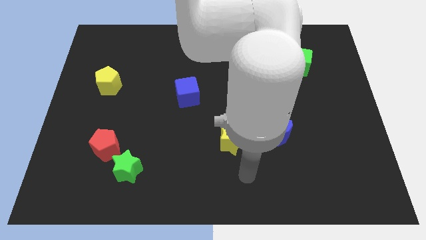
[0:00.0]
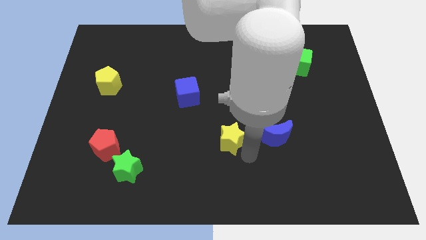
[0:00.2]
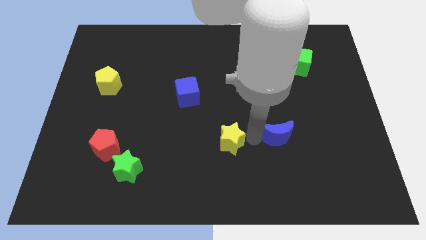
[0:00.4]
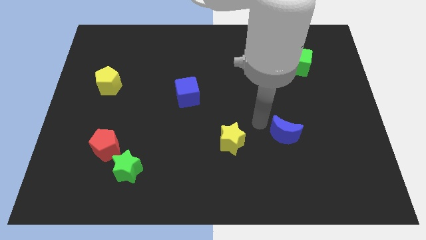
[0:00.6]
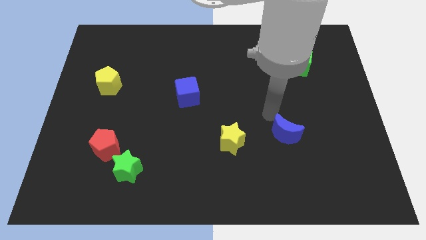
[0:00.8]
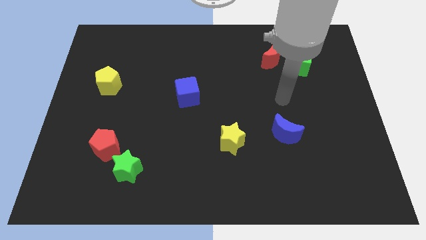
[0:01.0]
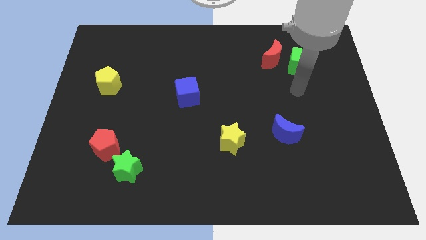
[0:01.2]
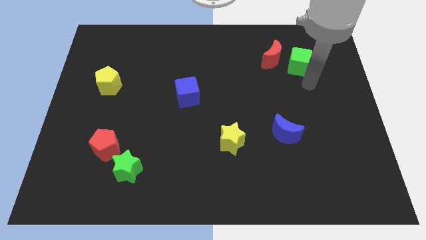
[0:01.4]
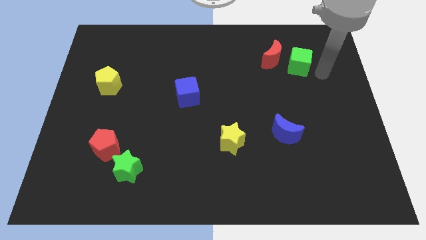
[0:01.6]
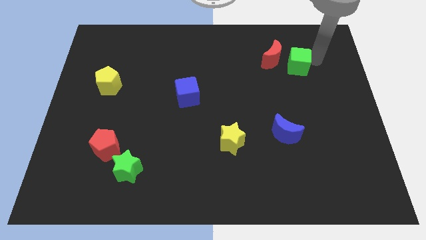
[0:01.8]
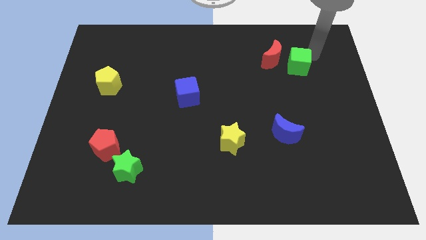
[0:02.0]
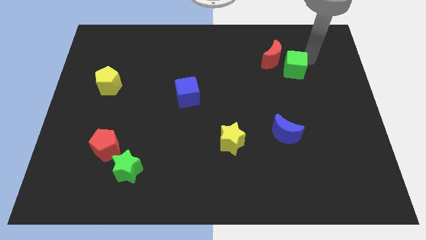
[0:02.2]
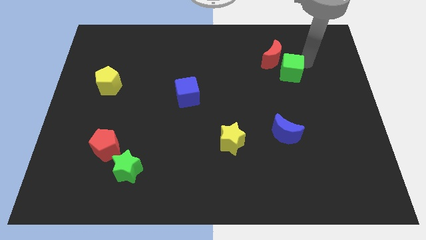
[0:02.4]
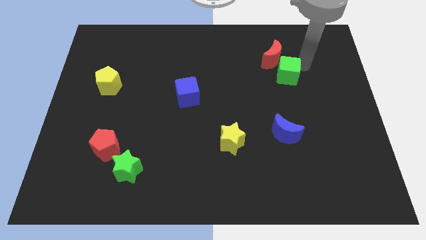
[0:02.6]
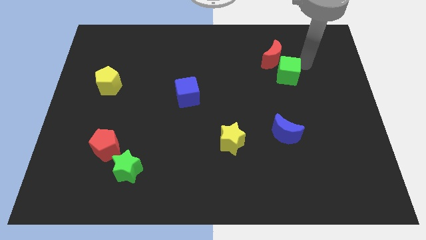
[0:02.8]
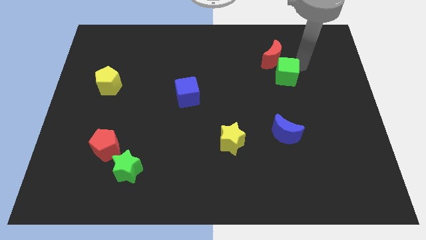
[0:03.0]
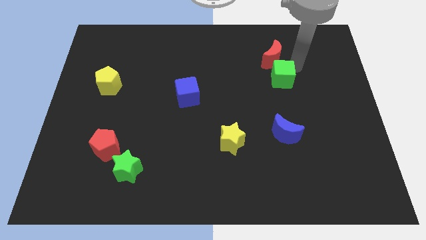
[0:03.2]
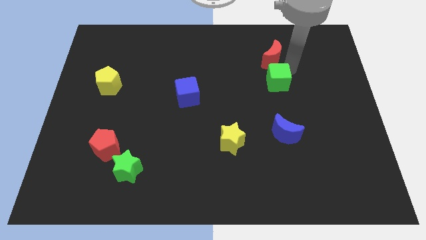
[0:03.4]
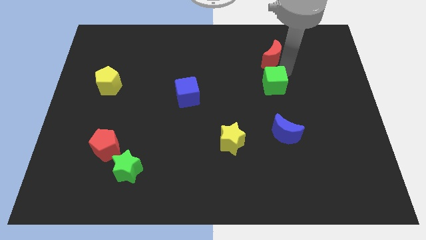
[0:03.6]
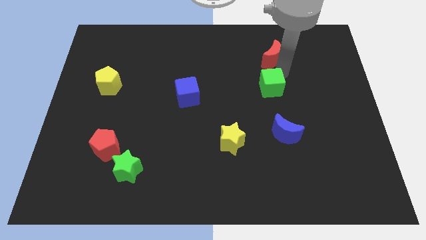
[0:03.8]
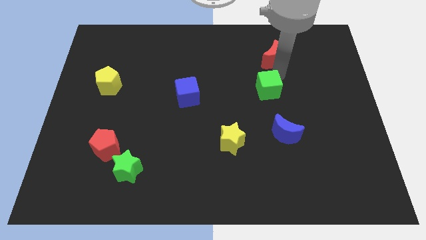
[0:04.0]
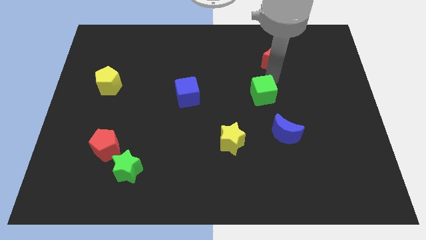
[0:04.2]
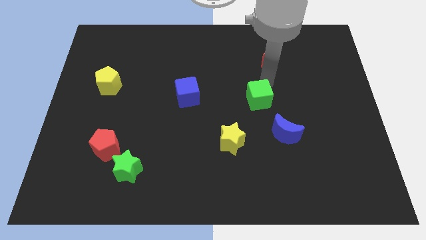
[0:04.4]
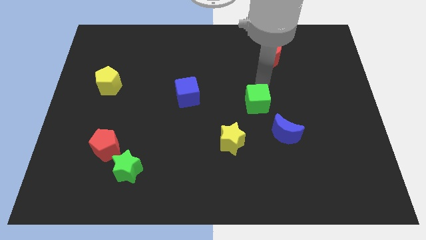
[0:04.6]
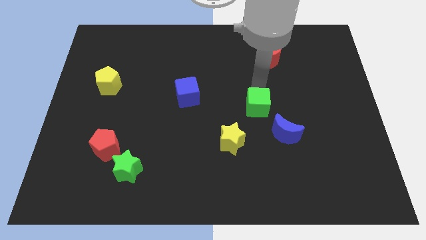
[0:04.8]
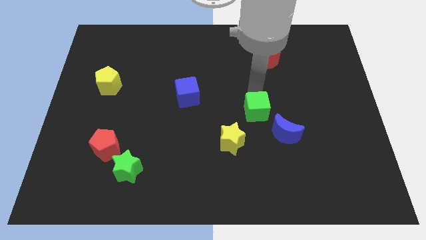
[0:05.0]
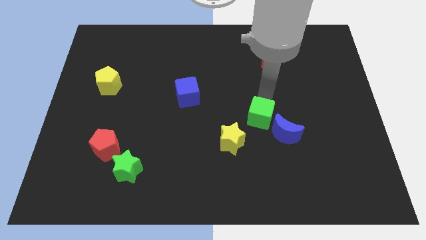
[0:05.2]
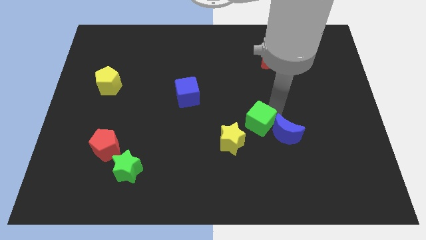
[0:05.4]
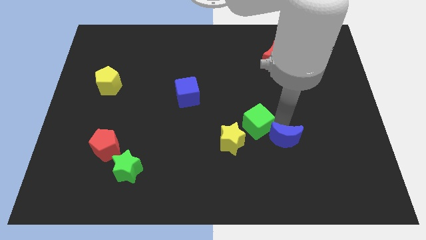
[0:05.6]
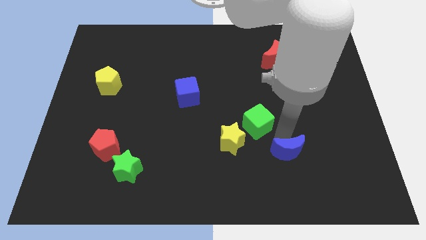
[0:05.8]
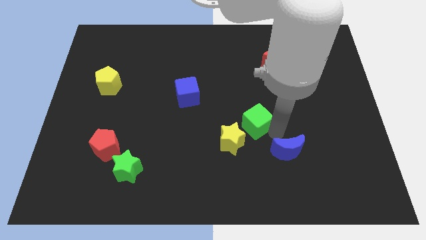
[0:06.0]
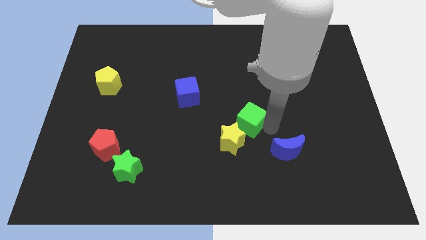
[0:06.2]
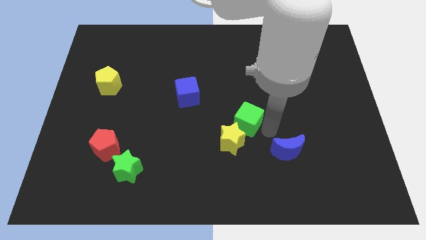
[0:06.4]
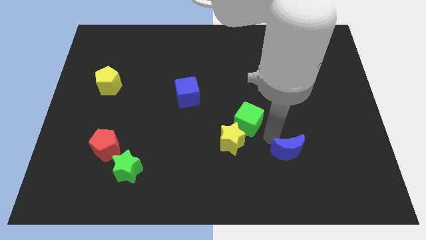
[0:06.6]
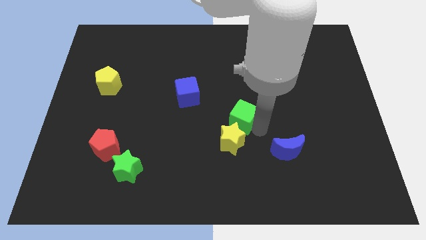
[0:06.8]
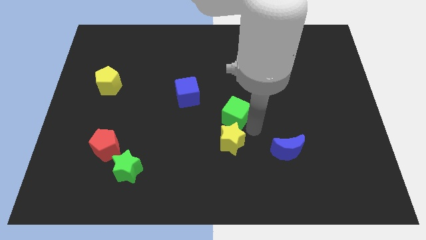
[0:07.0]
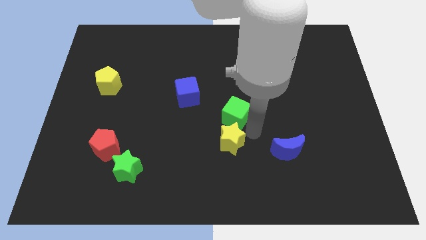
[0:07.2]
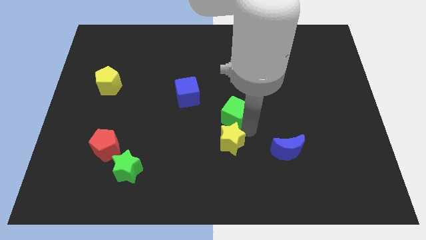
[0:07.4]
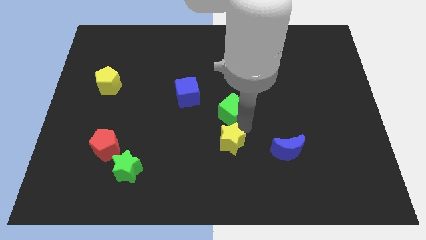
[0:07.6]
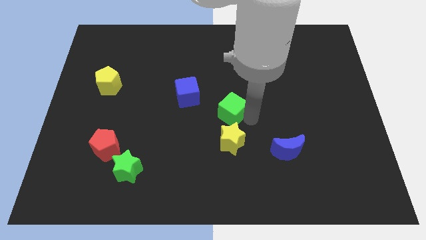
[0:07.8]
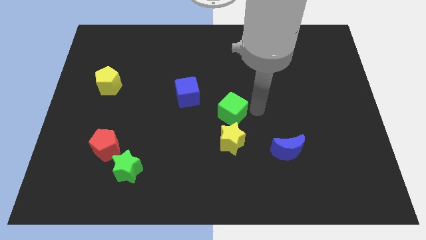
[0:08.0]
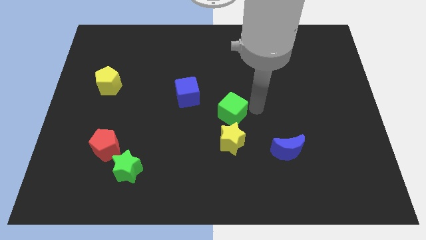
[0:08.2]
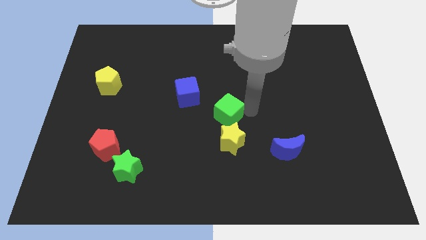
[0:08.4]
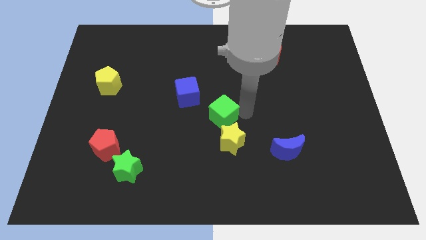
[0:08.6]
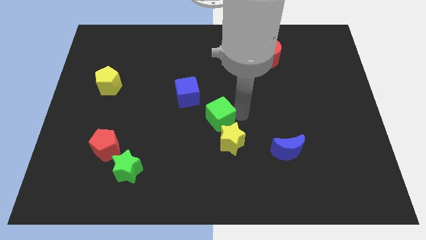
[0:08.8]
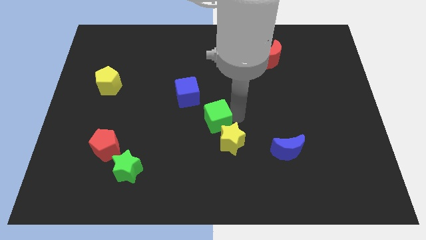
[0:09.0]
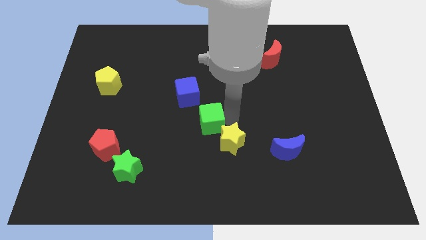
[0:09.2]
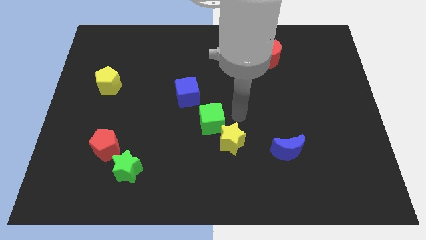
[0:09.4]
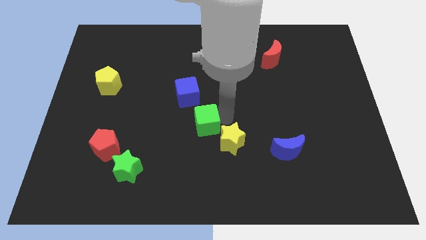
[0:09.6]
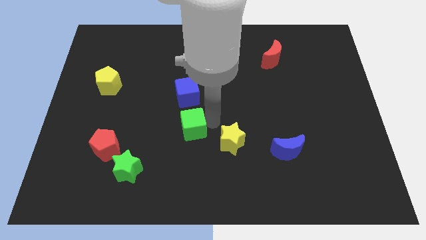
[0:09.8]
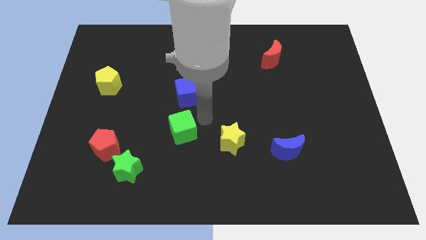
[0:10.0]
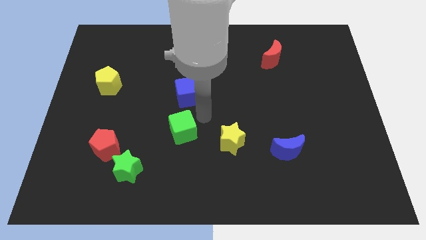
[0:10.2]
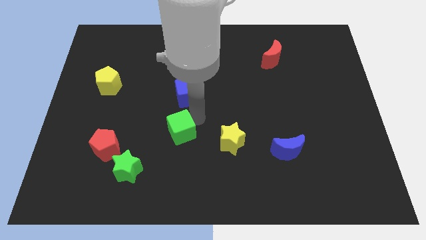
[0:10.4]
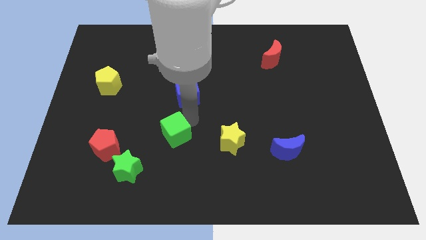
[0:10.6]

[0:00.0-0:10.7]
push the green cube to the top right side of the green star

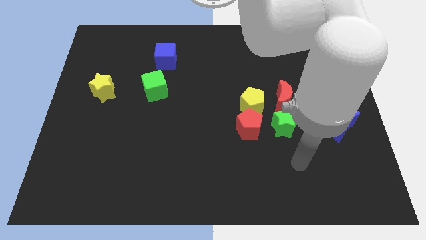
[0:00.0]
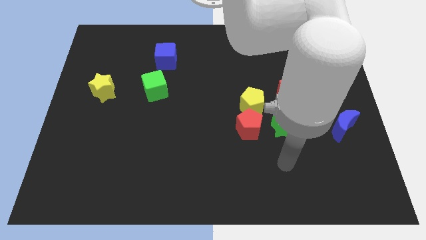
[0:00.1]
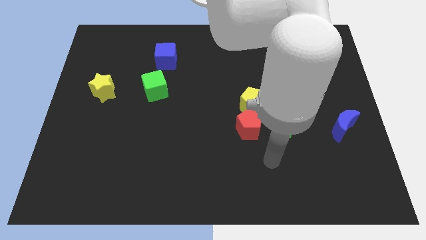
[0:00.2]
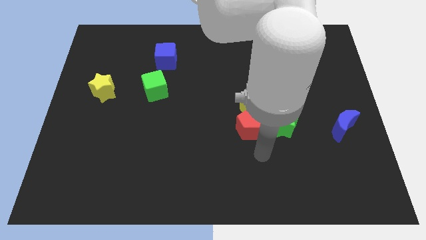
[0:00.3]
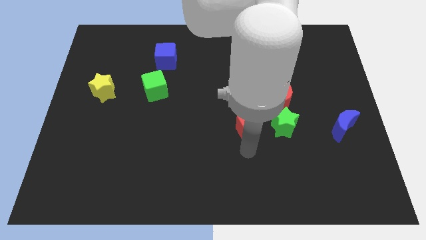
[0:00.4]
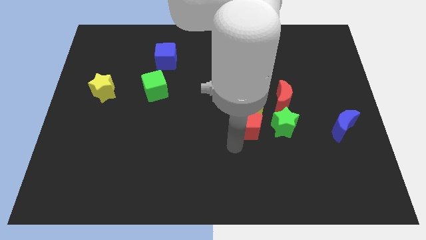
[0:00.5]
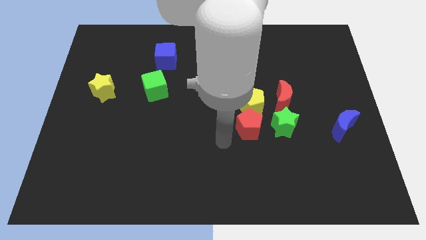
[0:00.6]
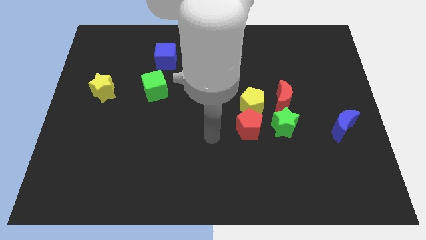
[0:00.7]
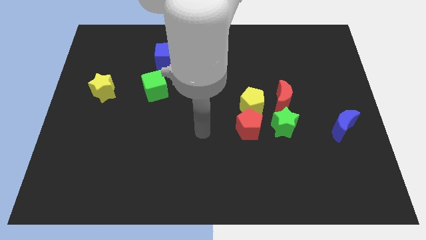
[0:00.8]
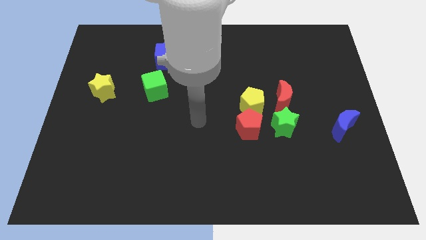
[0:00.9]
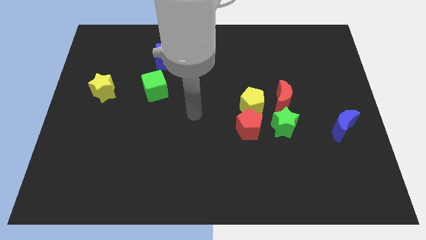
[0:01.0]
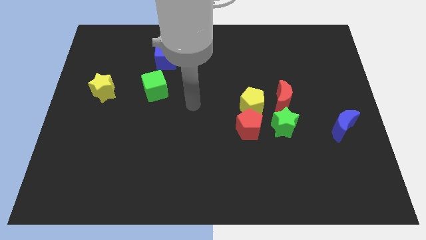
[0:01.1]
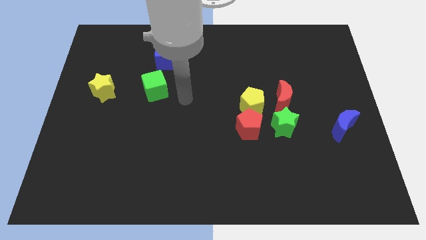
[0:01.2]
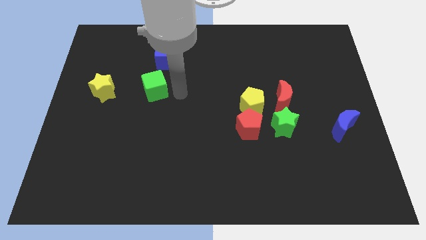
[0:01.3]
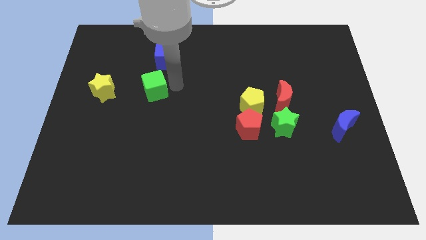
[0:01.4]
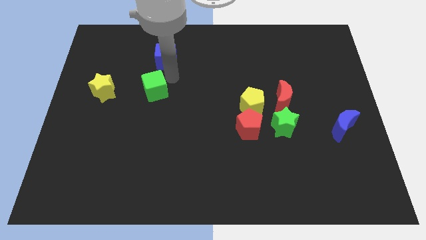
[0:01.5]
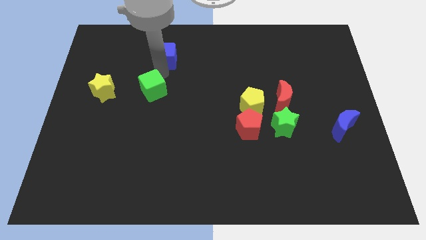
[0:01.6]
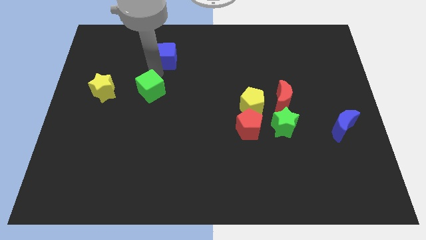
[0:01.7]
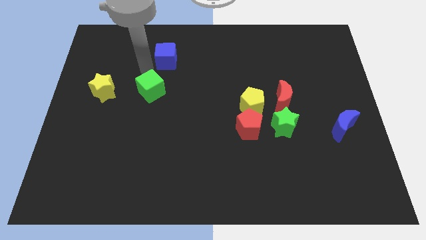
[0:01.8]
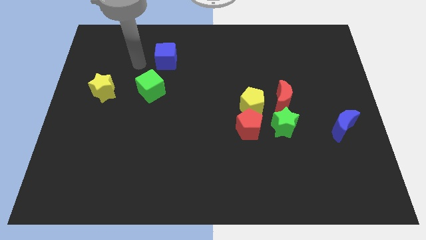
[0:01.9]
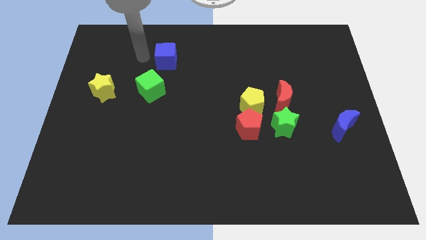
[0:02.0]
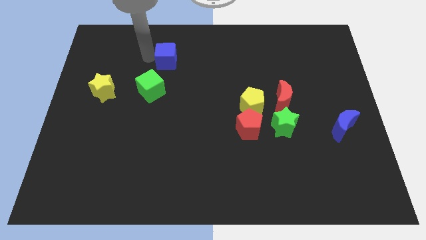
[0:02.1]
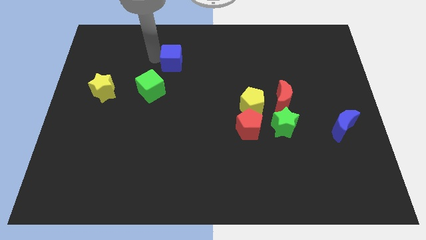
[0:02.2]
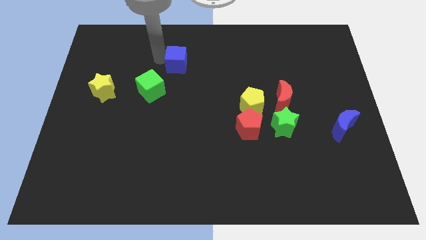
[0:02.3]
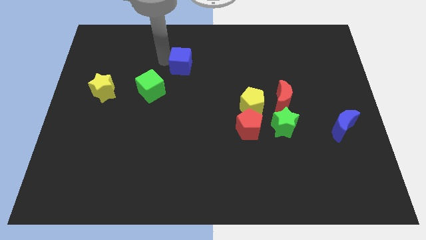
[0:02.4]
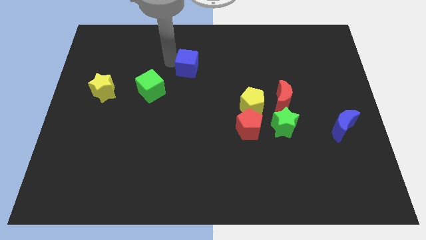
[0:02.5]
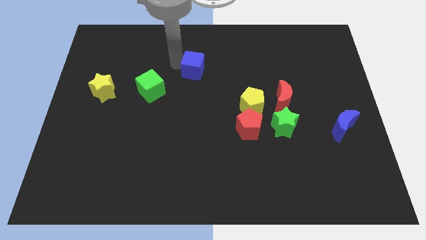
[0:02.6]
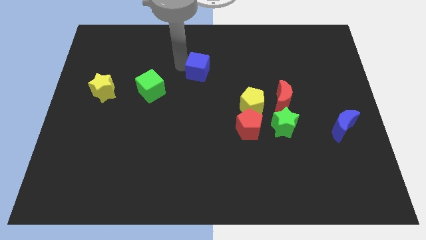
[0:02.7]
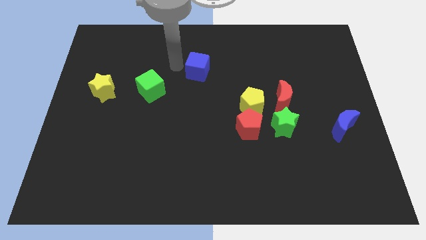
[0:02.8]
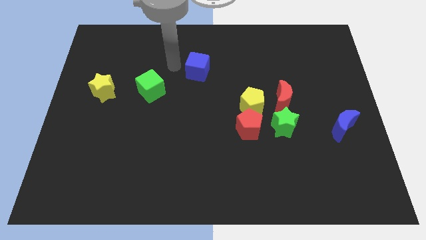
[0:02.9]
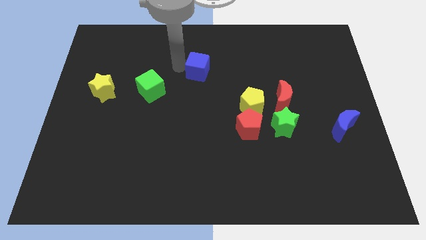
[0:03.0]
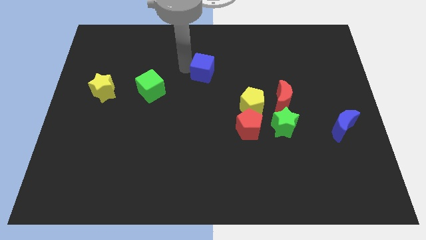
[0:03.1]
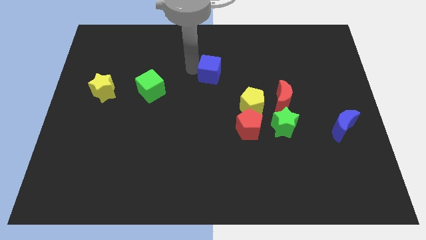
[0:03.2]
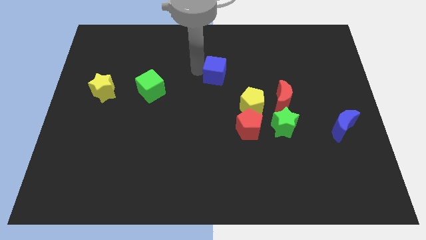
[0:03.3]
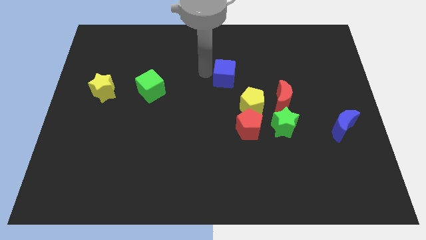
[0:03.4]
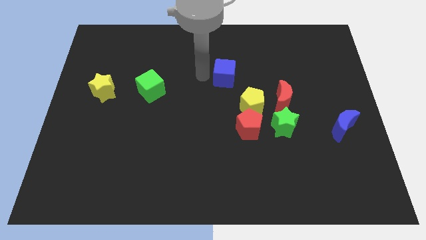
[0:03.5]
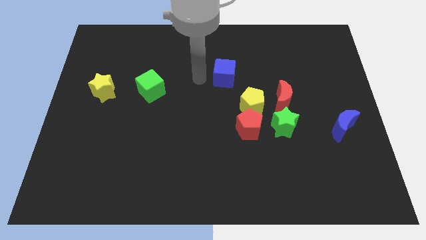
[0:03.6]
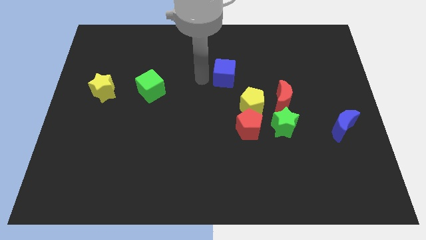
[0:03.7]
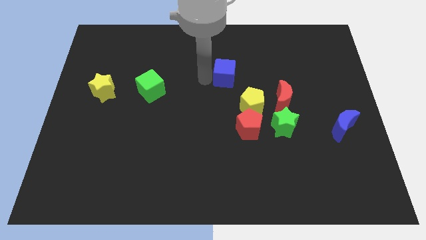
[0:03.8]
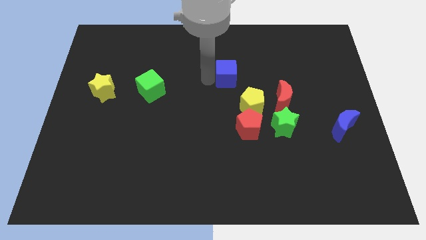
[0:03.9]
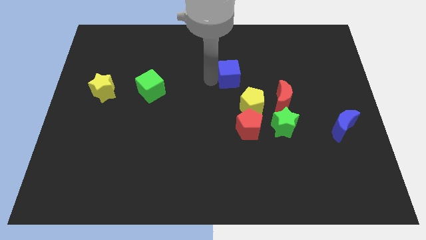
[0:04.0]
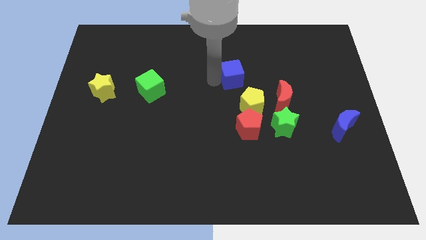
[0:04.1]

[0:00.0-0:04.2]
move the blue cube to the top side of the yellow pentagon
